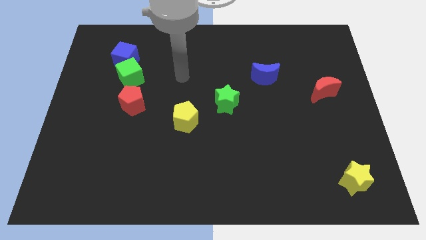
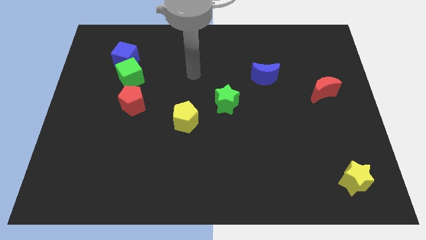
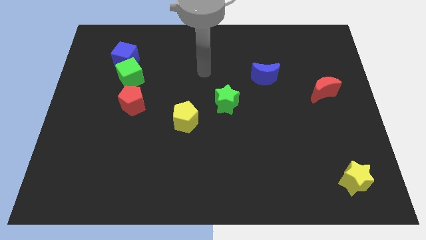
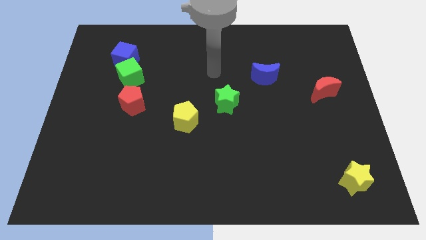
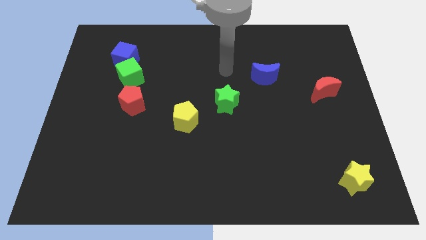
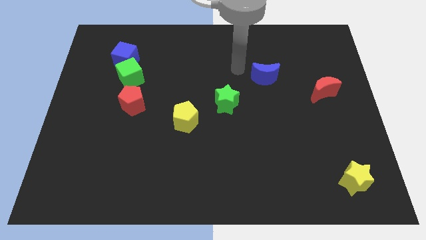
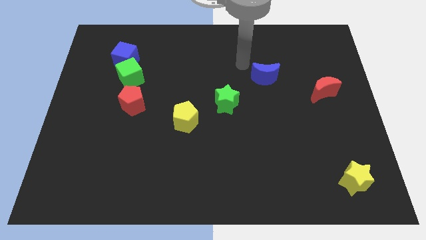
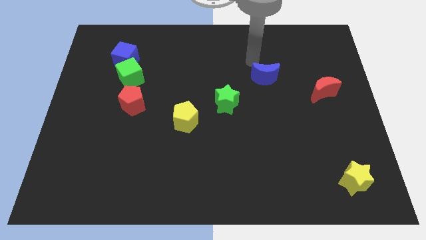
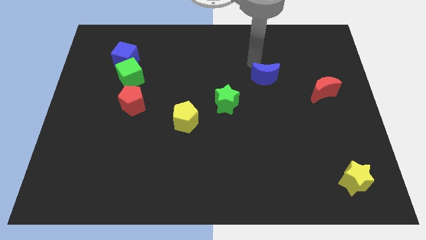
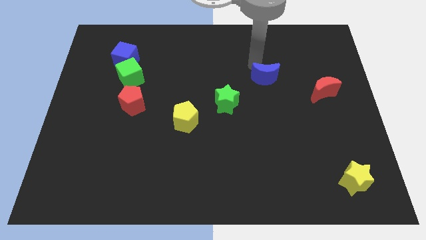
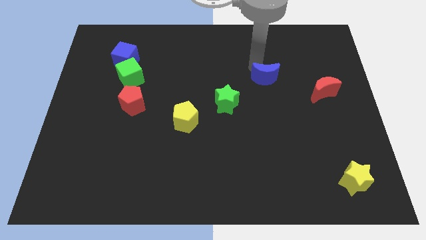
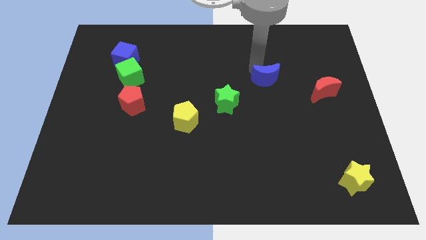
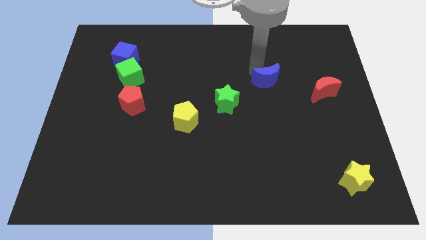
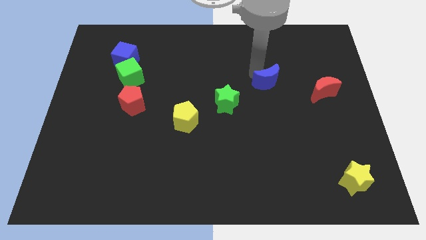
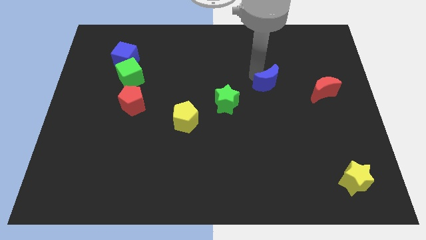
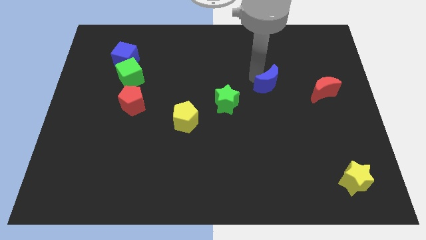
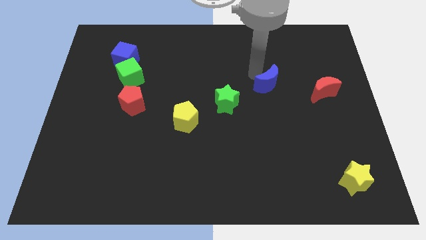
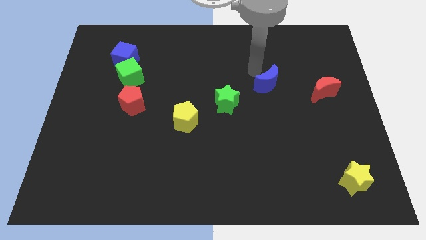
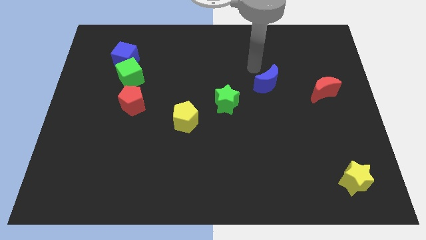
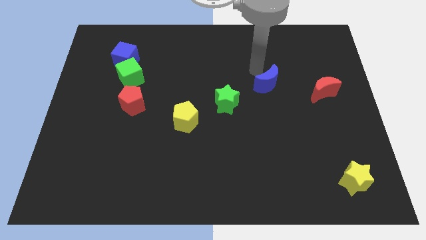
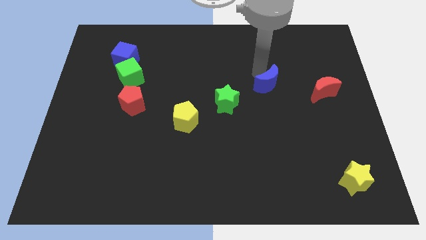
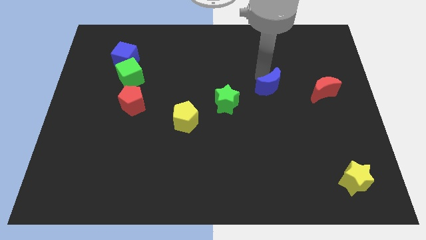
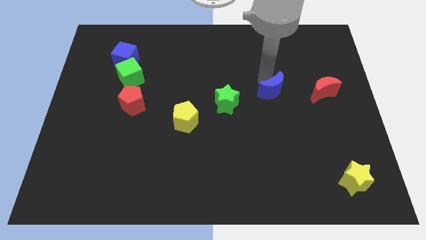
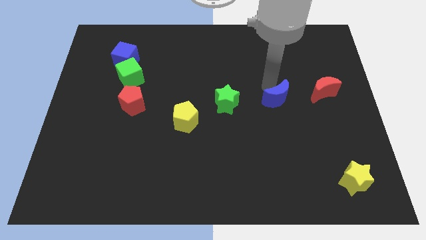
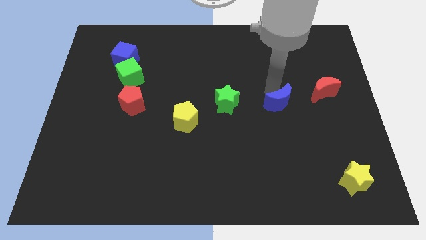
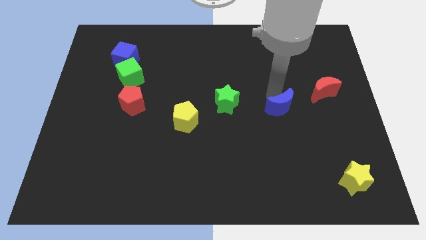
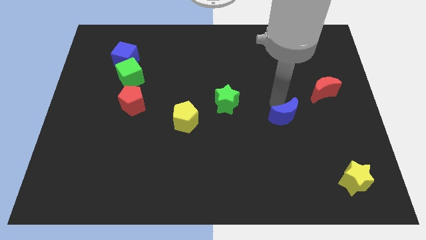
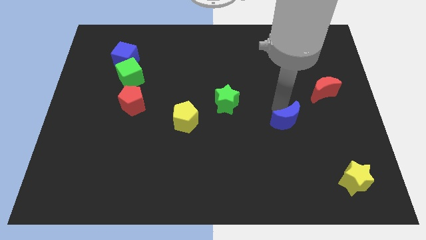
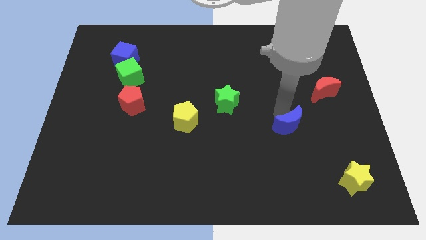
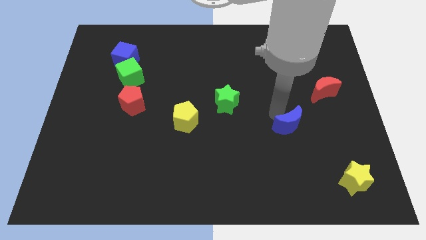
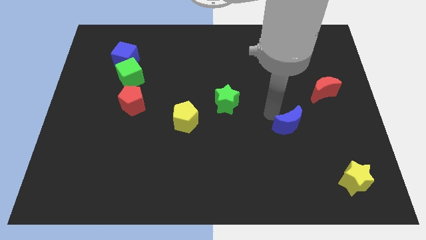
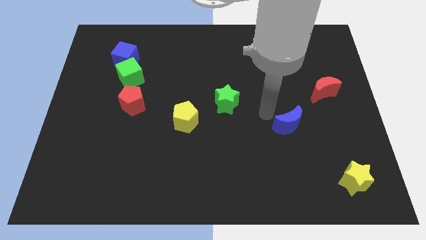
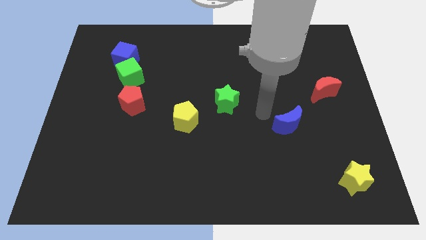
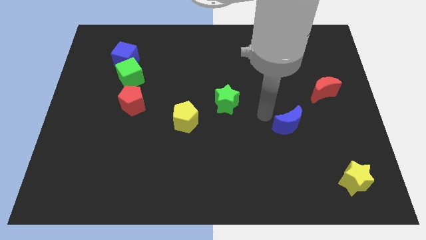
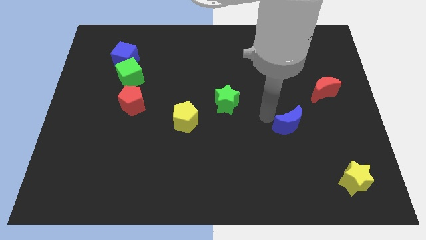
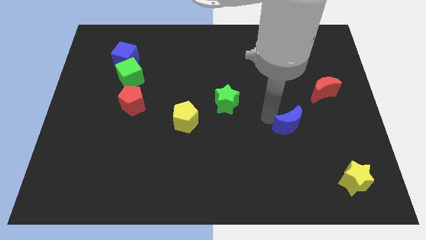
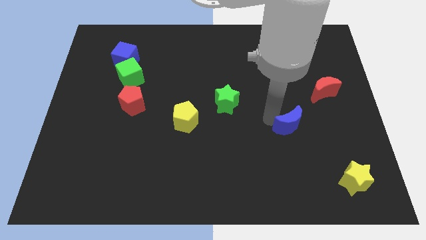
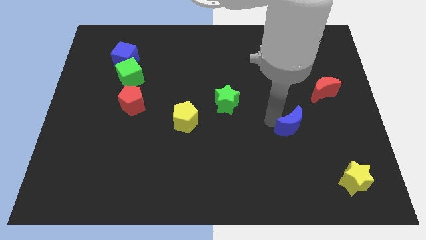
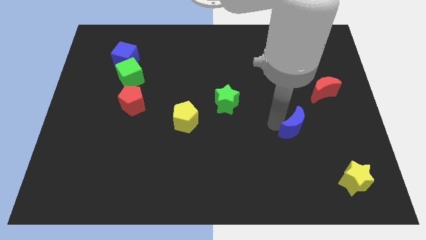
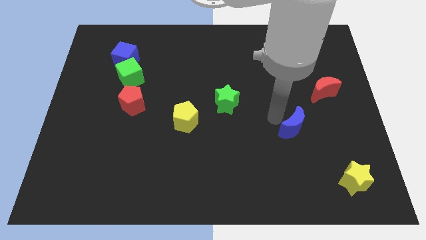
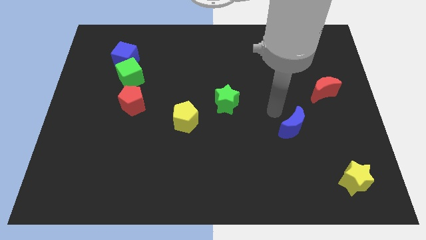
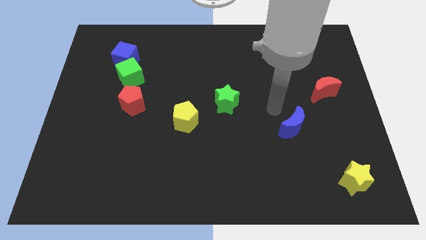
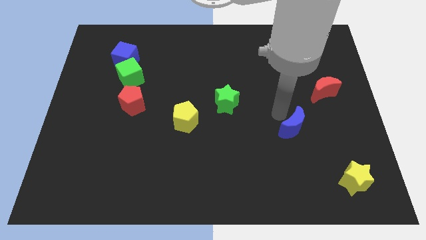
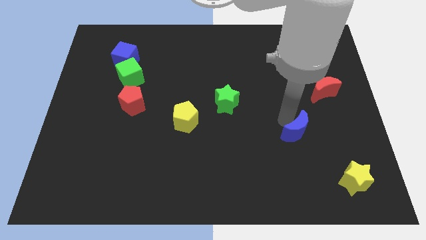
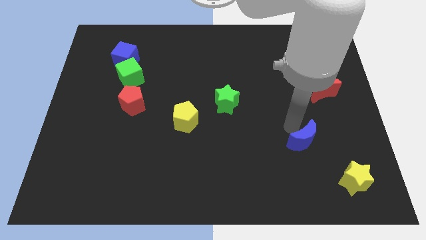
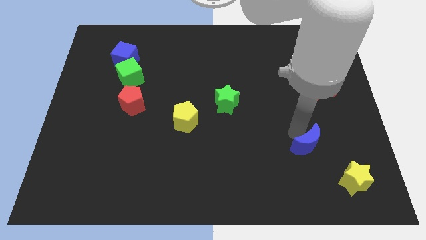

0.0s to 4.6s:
push the blue moon diagonally up and to the left of the yellow star

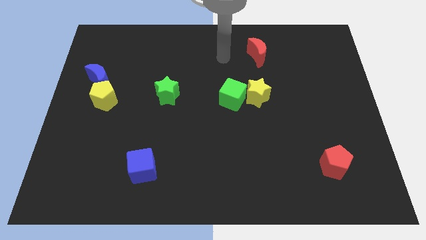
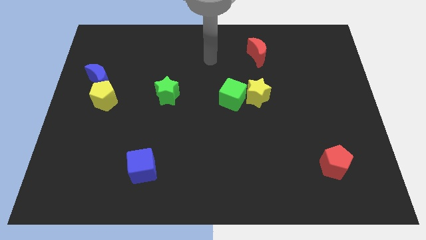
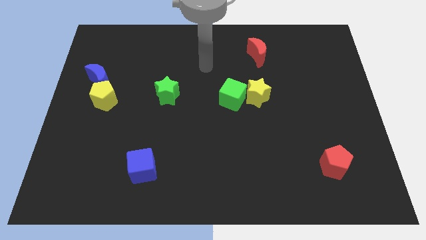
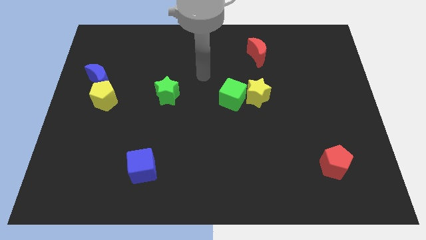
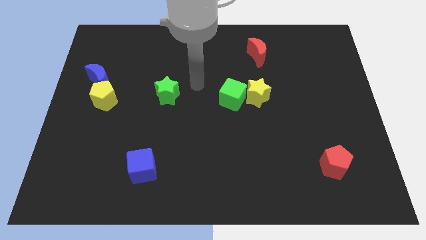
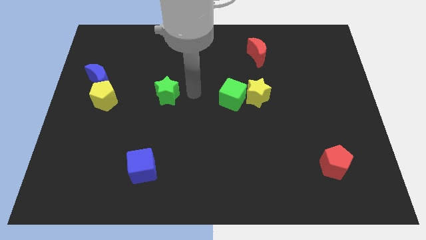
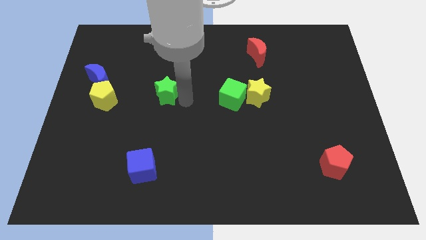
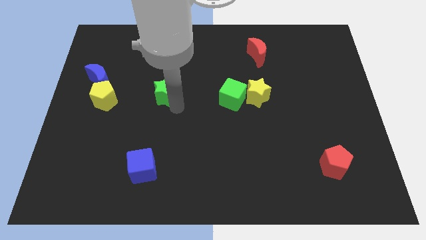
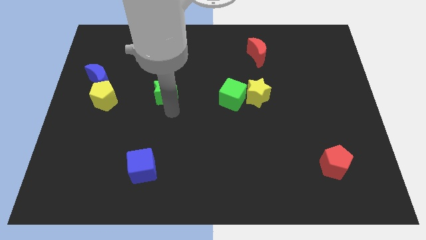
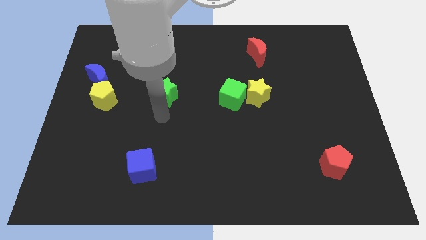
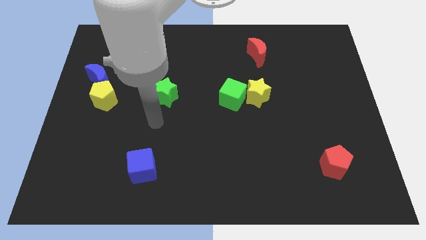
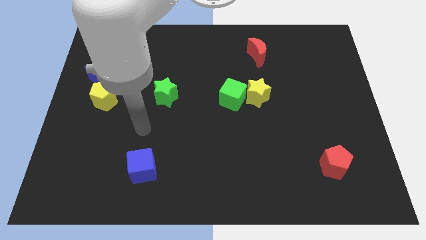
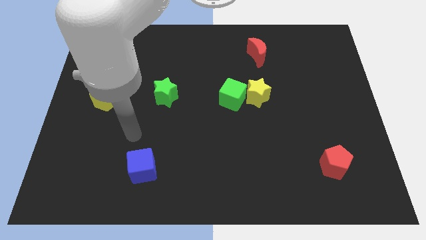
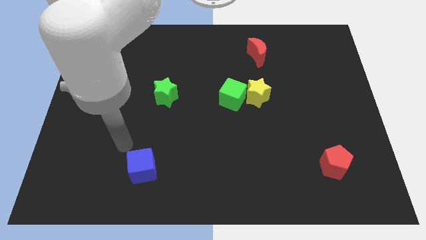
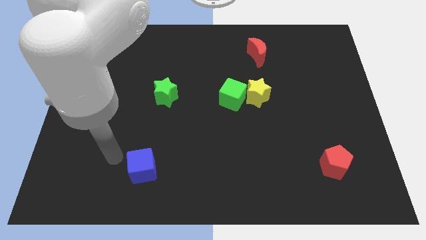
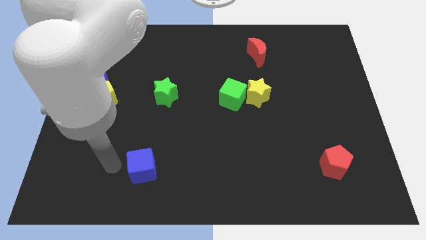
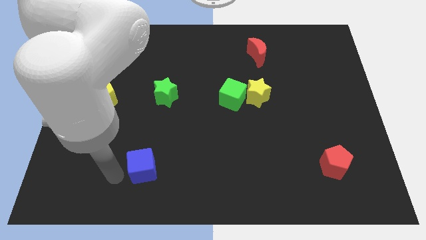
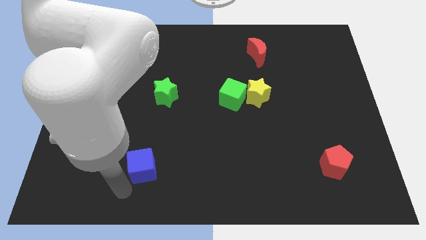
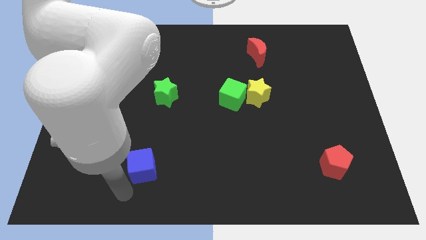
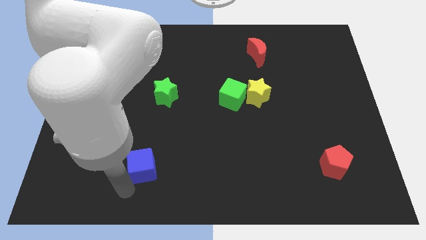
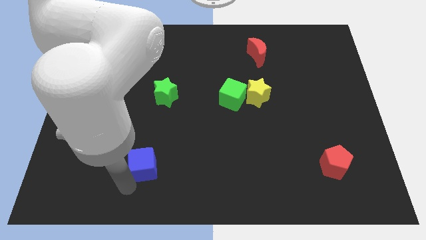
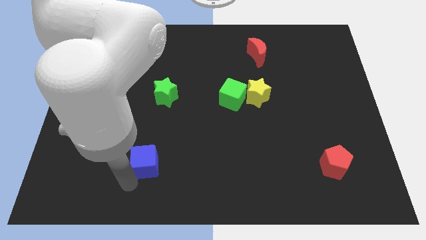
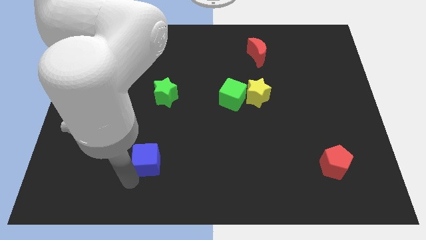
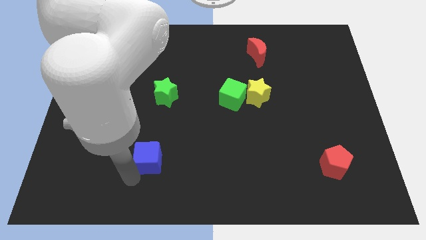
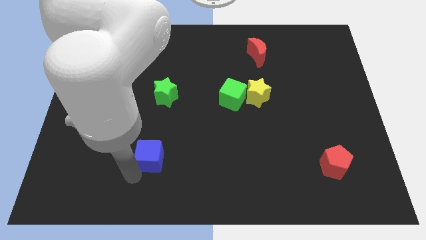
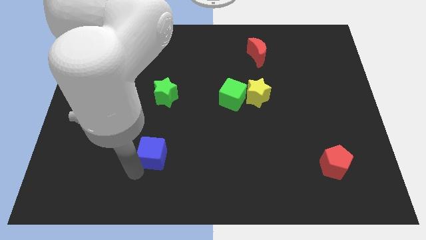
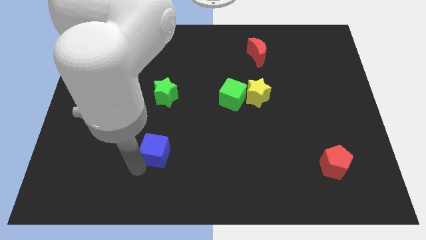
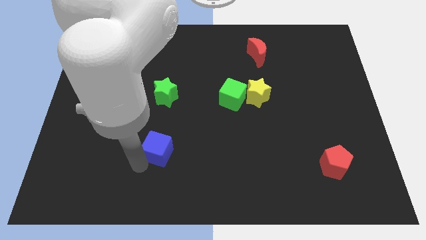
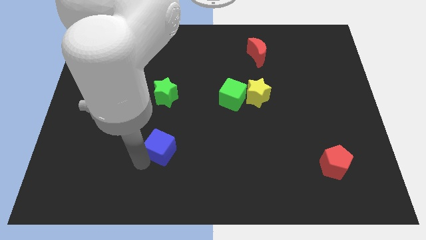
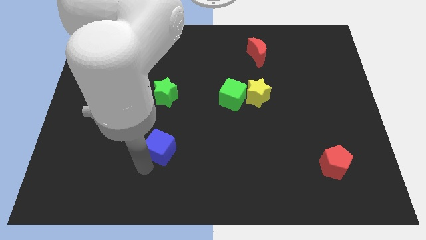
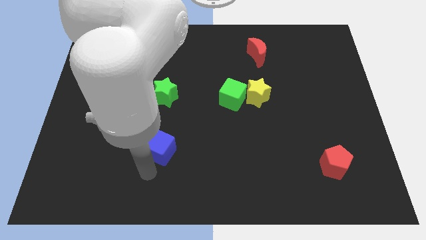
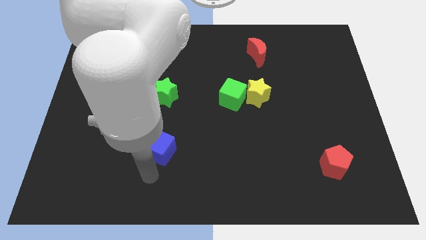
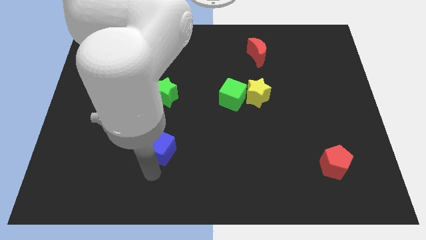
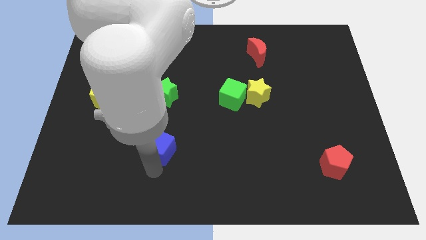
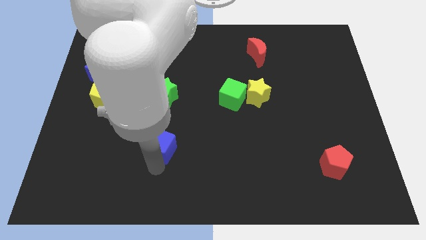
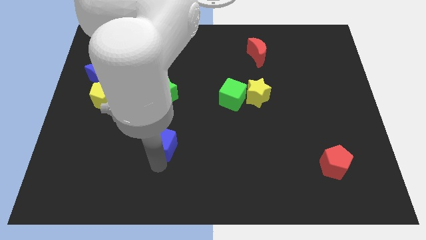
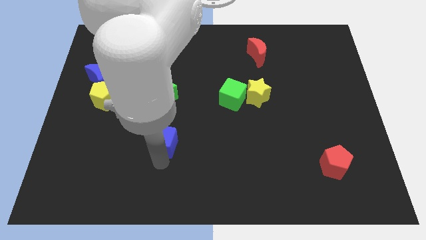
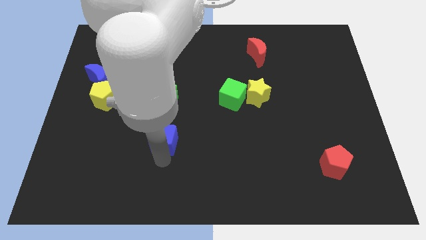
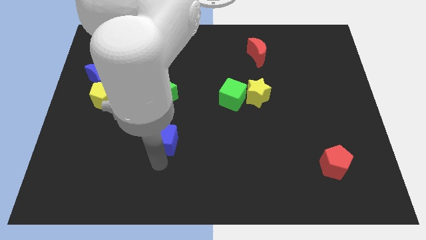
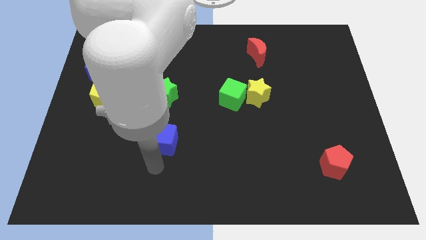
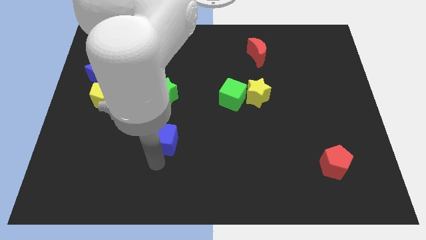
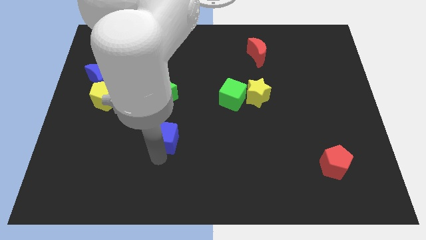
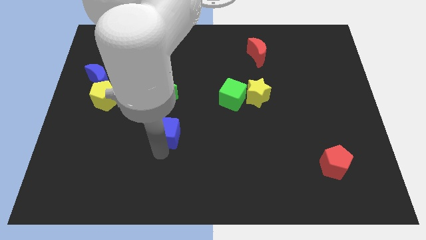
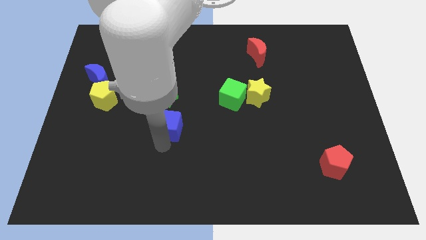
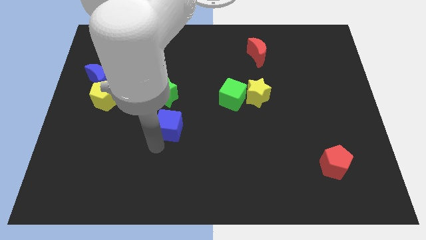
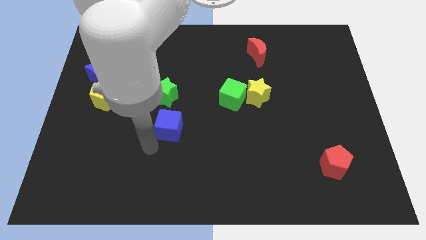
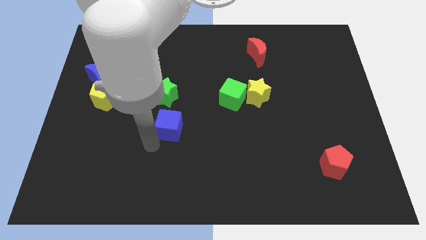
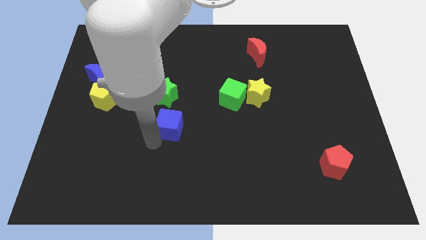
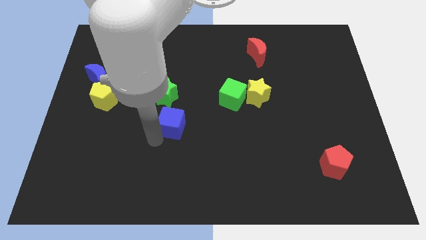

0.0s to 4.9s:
slide the blue cube to the bottom right of the green star
